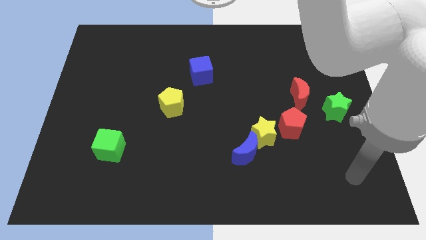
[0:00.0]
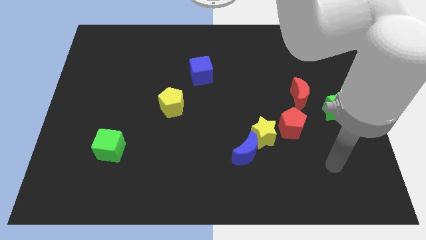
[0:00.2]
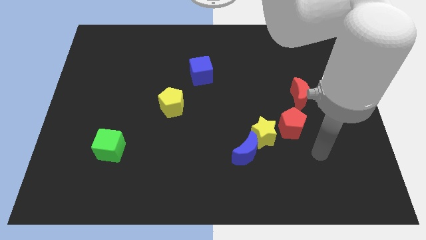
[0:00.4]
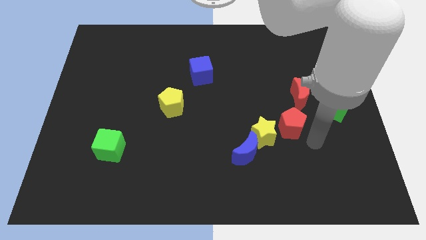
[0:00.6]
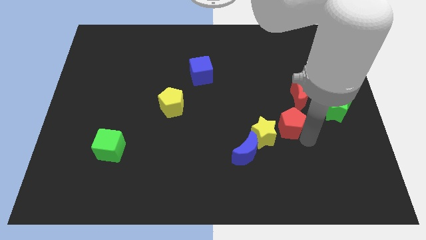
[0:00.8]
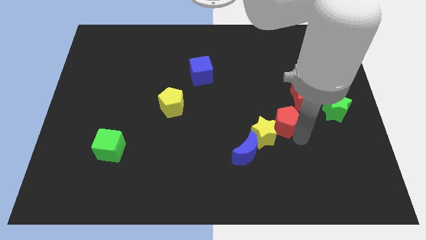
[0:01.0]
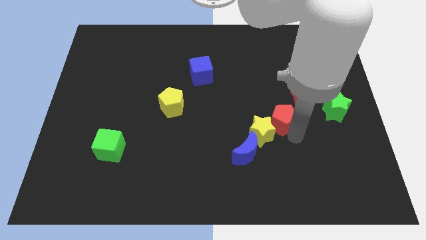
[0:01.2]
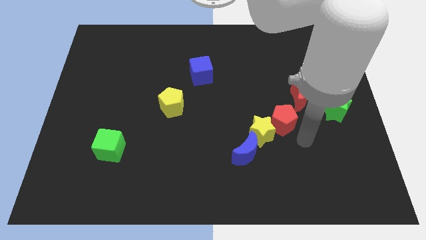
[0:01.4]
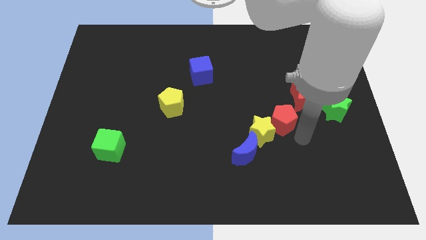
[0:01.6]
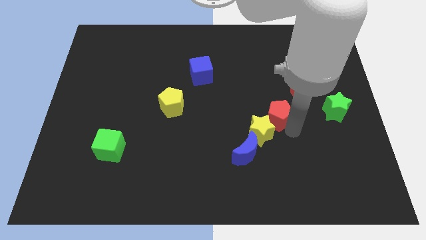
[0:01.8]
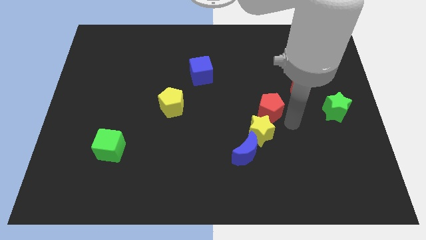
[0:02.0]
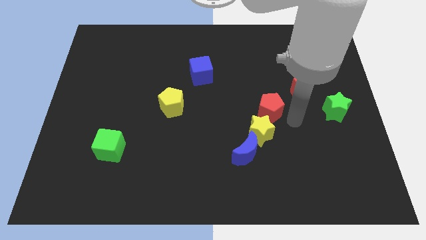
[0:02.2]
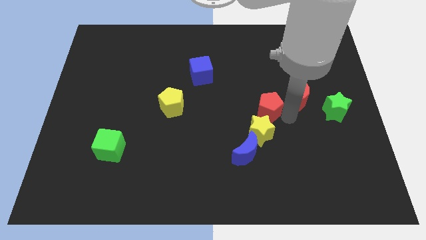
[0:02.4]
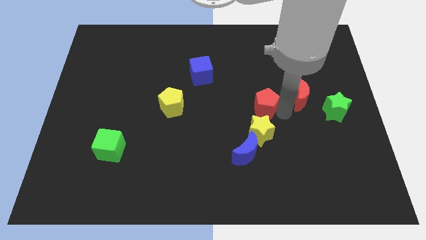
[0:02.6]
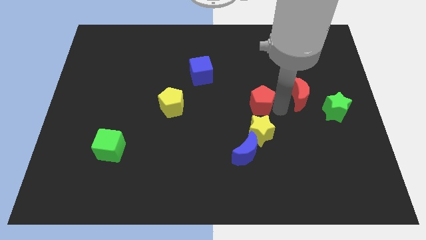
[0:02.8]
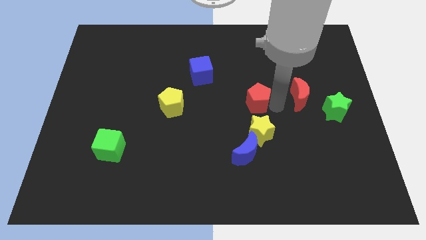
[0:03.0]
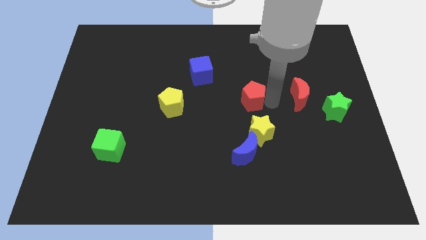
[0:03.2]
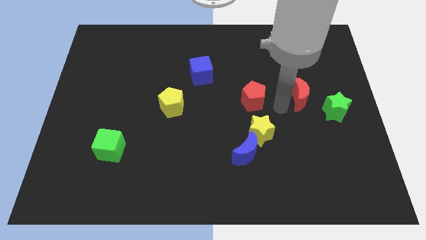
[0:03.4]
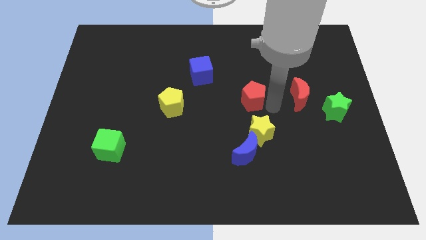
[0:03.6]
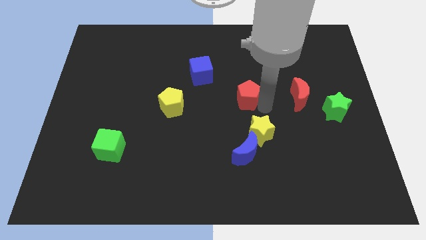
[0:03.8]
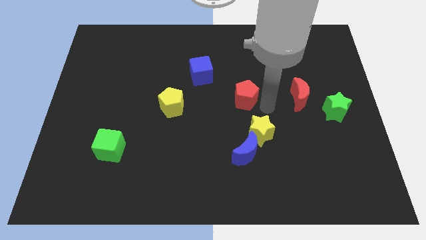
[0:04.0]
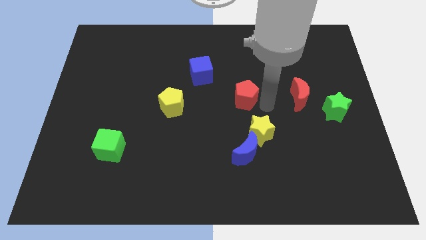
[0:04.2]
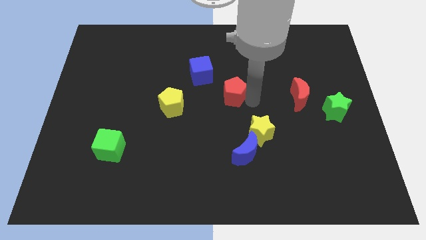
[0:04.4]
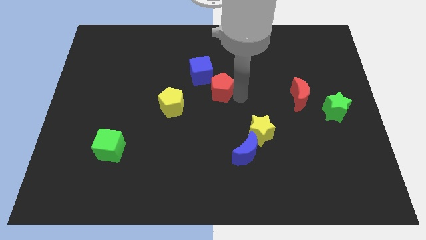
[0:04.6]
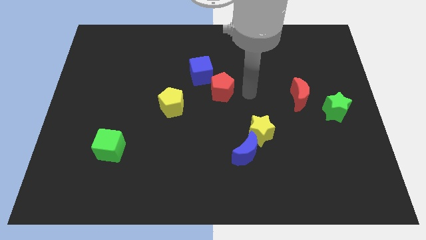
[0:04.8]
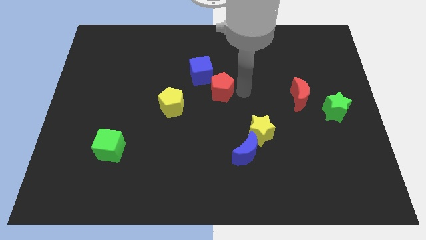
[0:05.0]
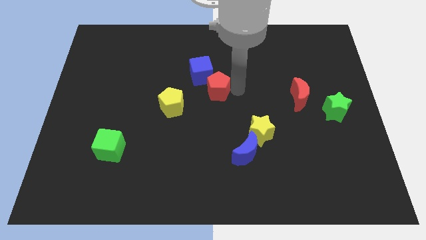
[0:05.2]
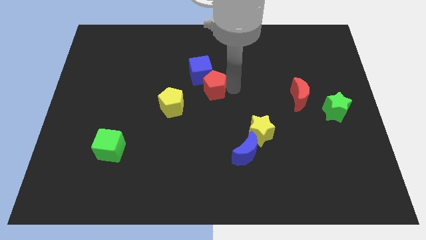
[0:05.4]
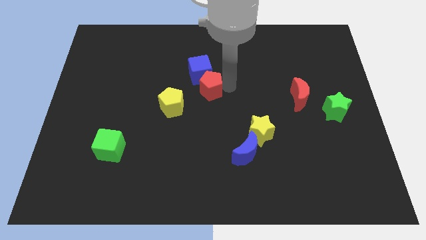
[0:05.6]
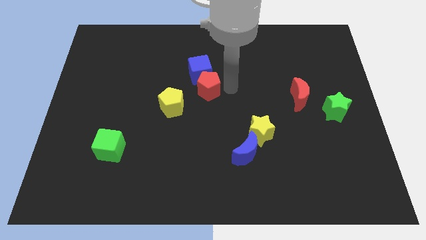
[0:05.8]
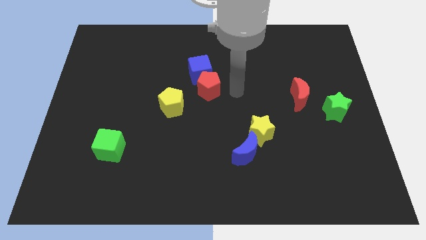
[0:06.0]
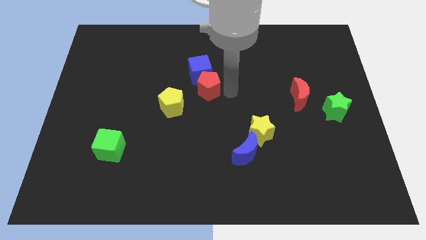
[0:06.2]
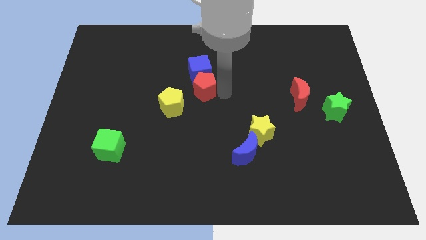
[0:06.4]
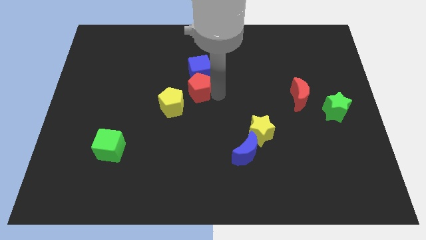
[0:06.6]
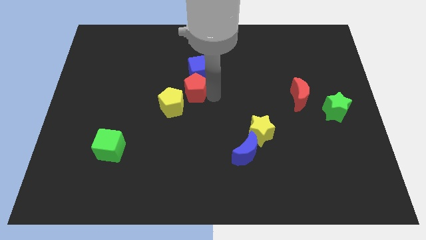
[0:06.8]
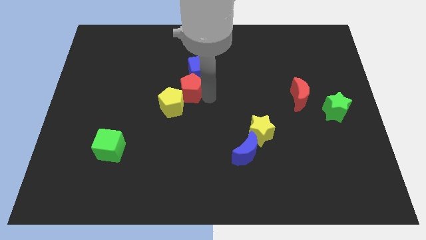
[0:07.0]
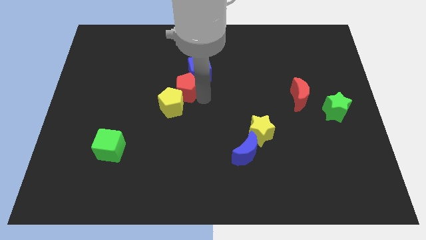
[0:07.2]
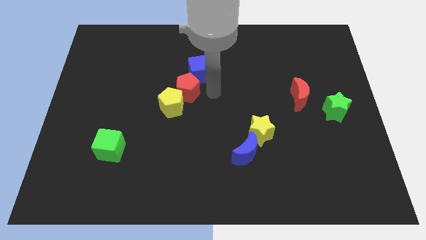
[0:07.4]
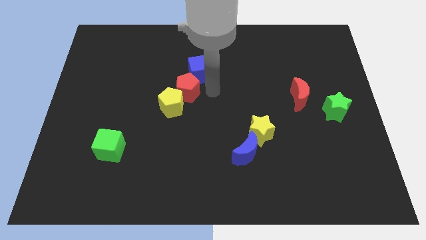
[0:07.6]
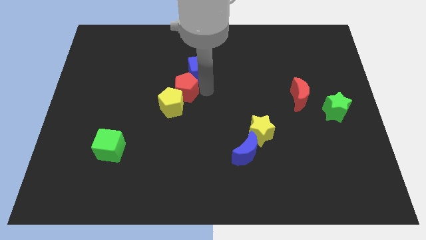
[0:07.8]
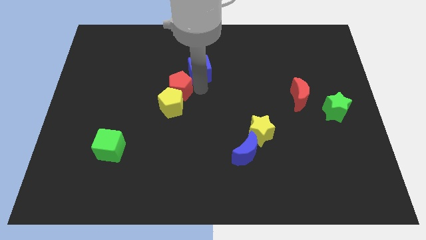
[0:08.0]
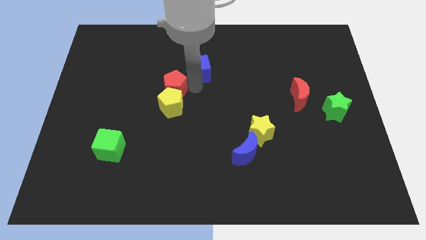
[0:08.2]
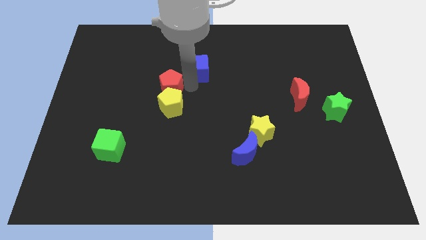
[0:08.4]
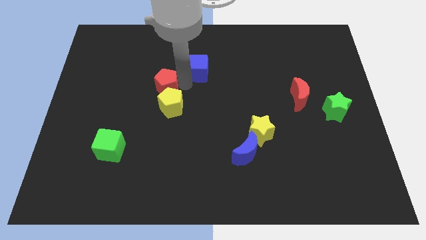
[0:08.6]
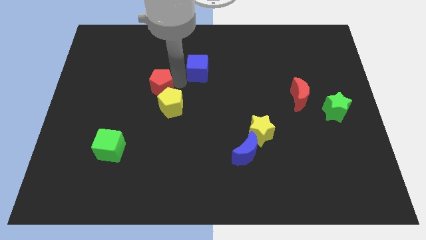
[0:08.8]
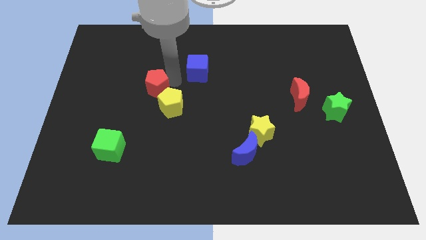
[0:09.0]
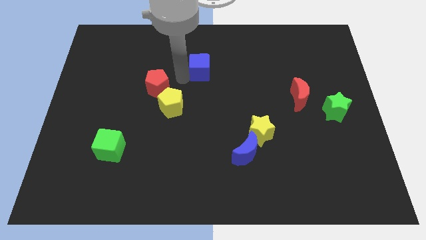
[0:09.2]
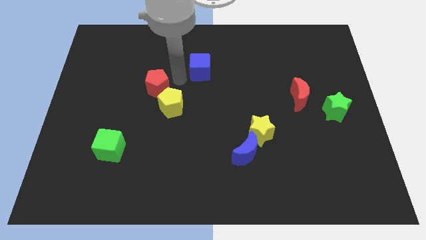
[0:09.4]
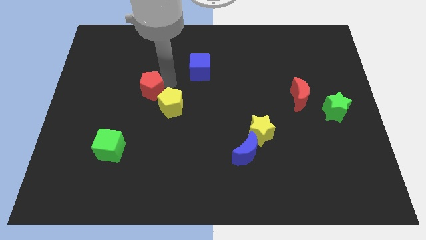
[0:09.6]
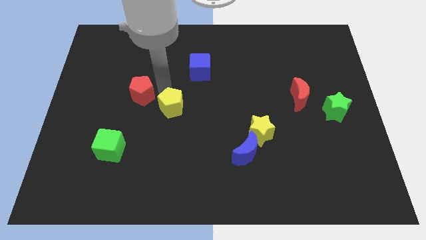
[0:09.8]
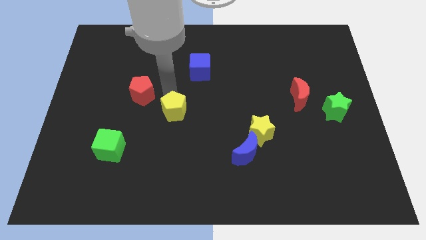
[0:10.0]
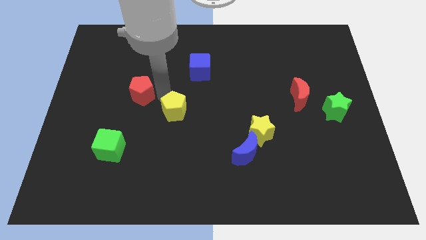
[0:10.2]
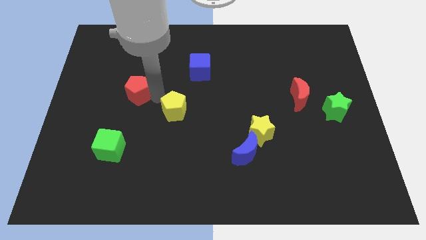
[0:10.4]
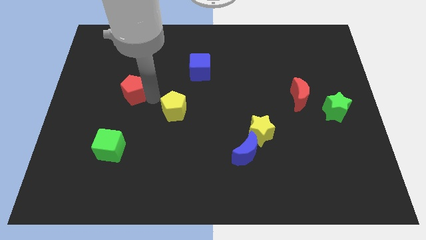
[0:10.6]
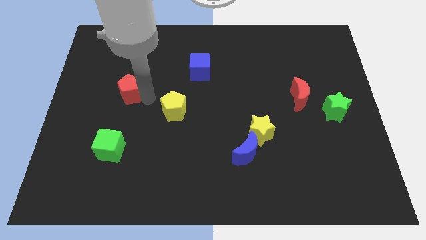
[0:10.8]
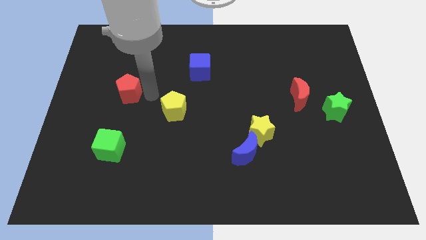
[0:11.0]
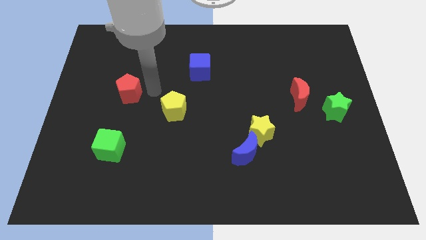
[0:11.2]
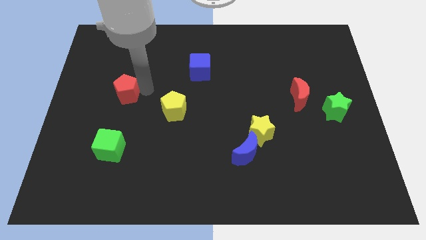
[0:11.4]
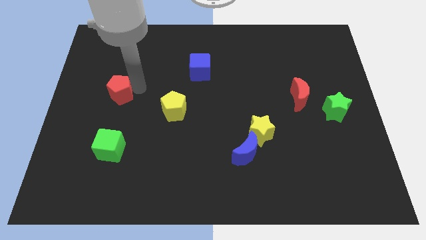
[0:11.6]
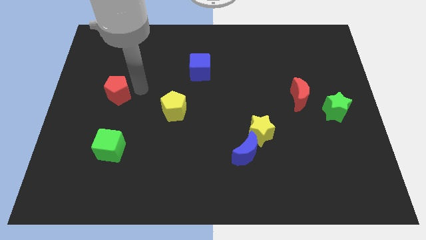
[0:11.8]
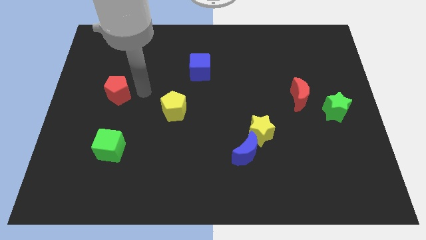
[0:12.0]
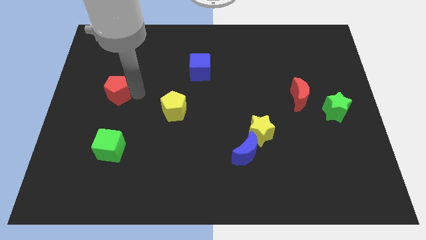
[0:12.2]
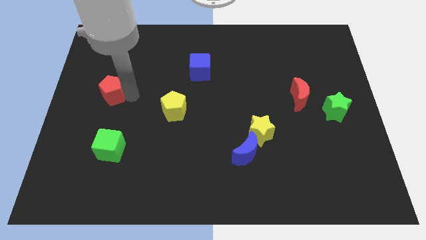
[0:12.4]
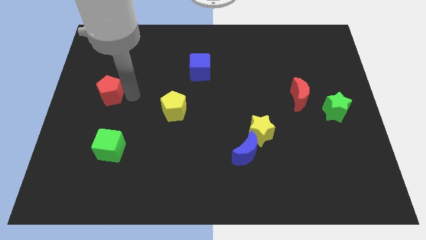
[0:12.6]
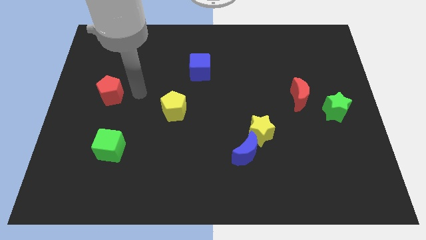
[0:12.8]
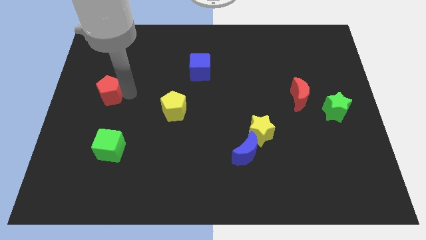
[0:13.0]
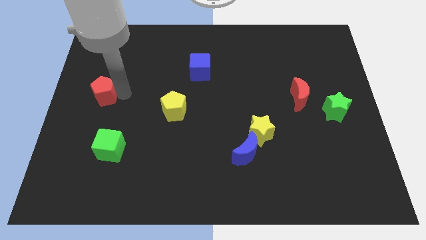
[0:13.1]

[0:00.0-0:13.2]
move the red pentagon to the left side

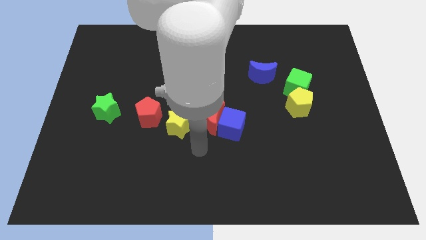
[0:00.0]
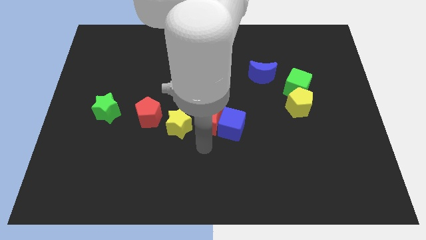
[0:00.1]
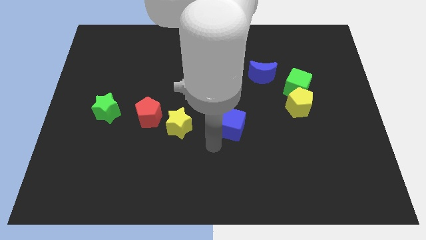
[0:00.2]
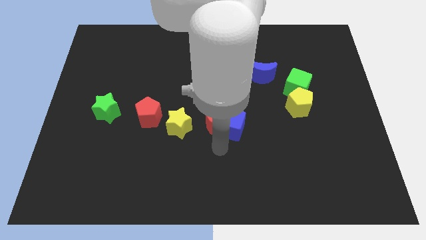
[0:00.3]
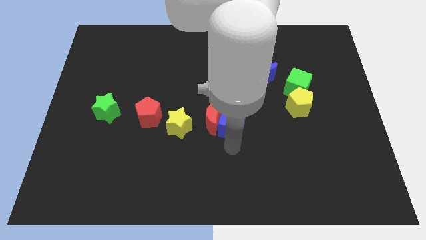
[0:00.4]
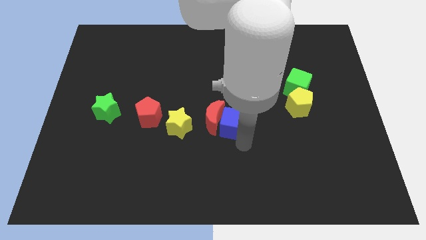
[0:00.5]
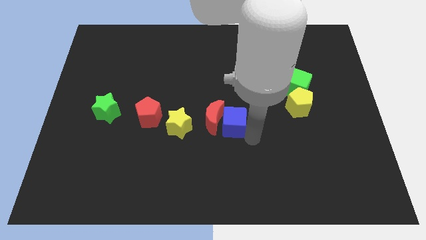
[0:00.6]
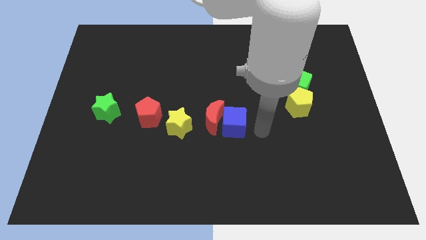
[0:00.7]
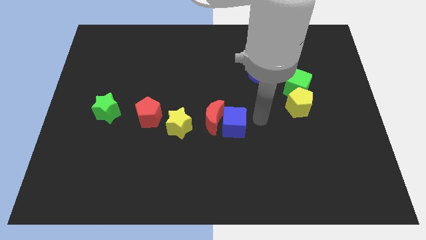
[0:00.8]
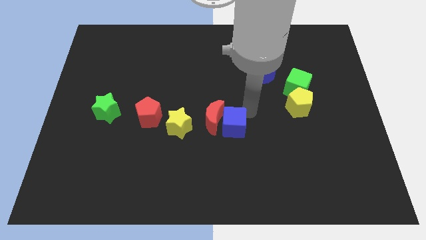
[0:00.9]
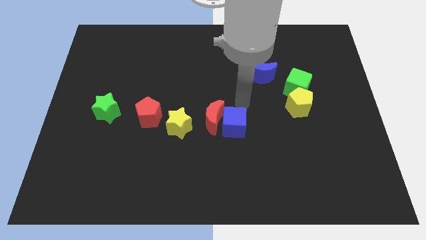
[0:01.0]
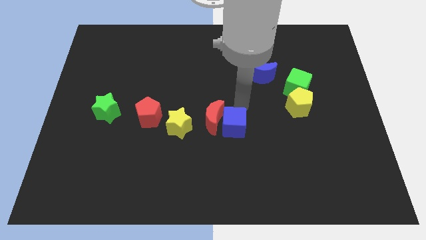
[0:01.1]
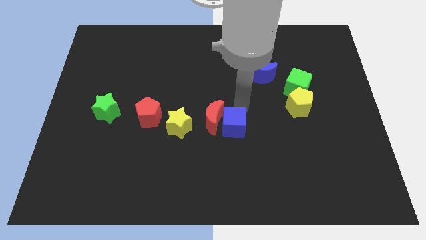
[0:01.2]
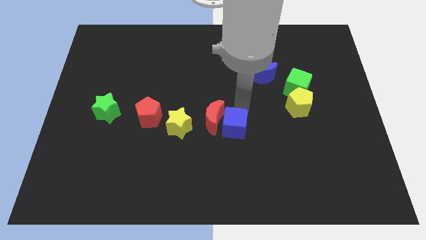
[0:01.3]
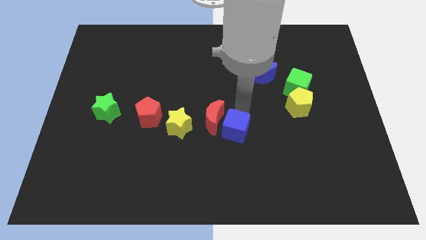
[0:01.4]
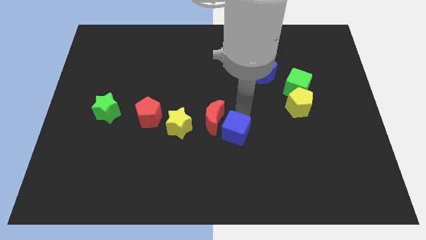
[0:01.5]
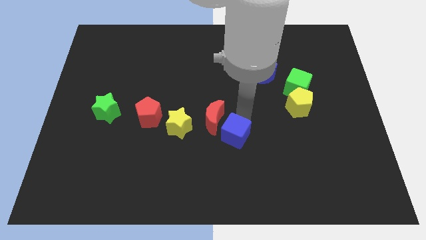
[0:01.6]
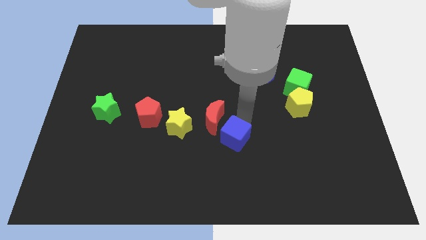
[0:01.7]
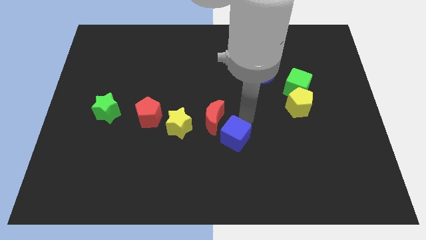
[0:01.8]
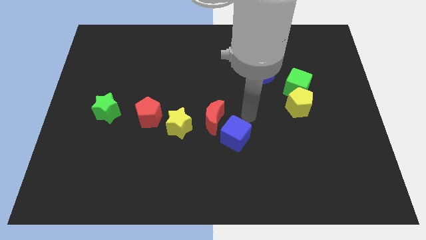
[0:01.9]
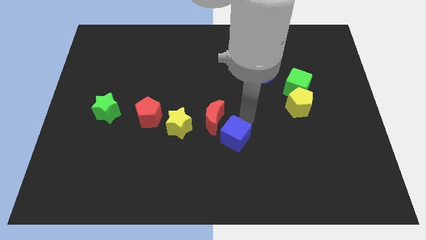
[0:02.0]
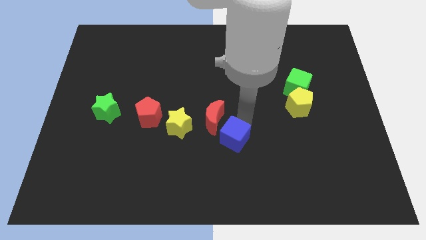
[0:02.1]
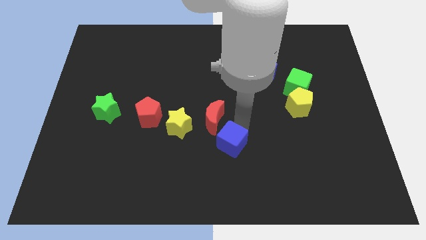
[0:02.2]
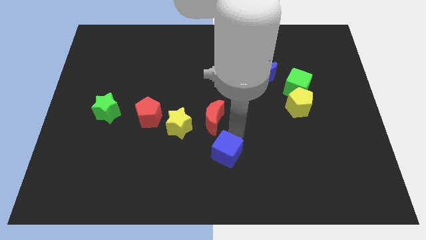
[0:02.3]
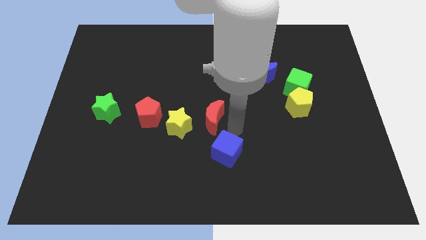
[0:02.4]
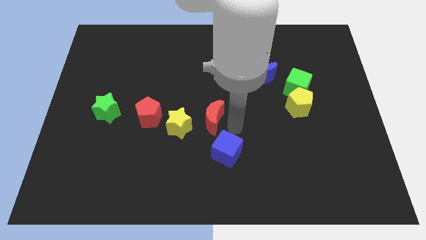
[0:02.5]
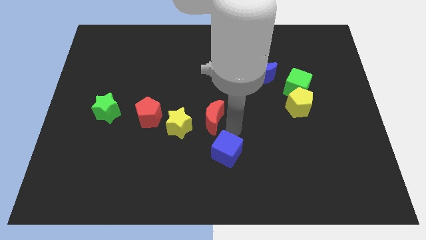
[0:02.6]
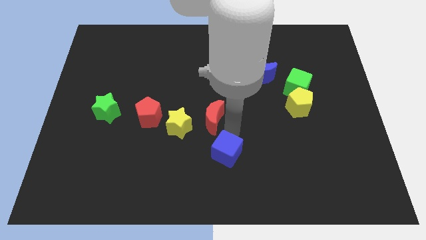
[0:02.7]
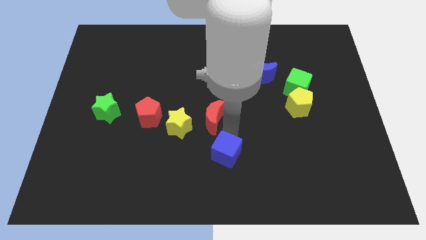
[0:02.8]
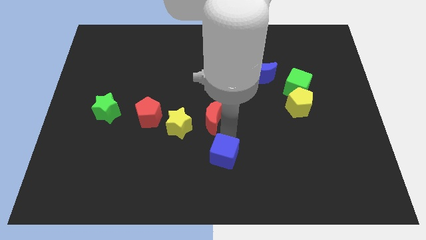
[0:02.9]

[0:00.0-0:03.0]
put the blue cube to the bottom
